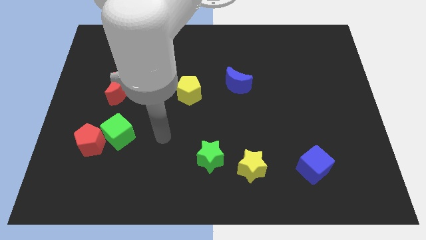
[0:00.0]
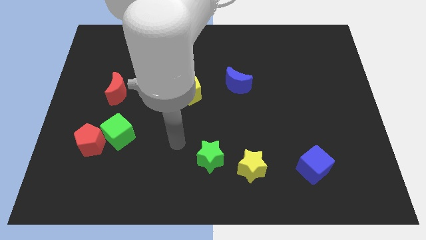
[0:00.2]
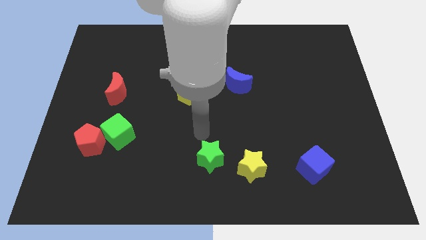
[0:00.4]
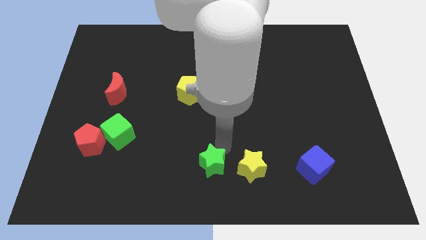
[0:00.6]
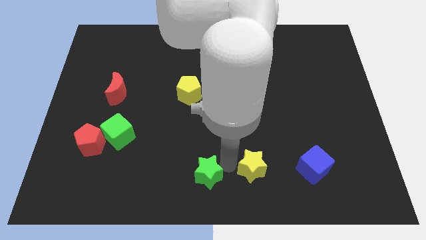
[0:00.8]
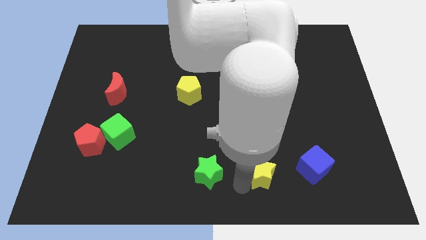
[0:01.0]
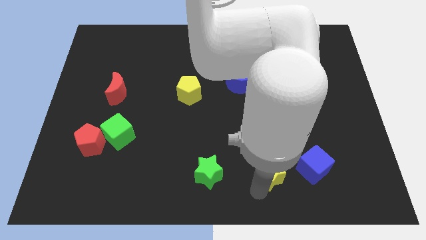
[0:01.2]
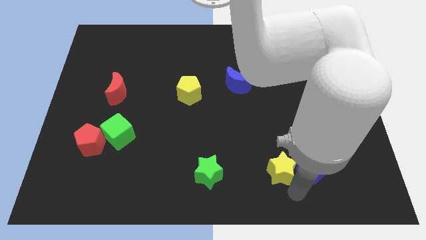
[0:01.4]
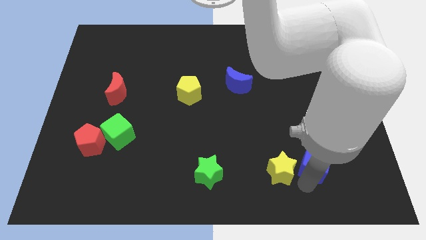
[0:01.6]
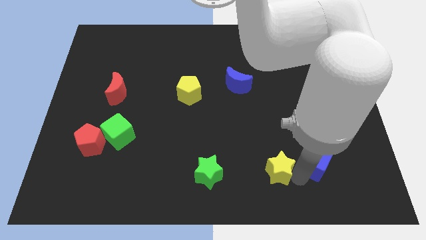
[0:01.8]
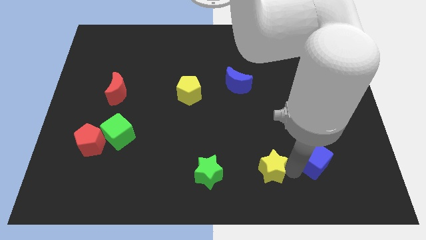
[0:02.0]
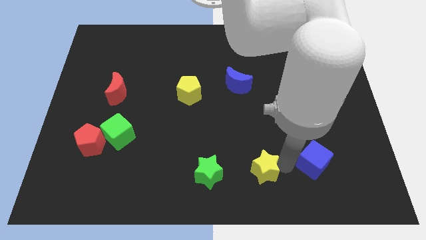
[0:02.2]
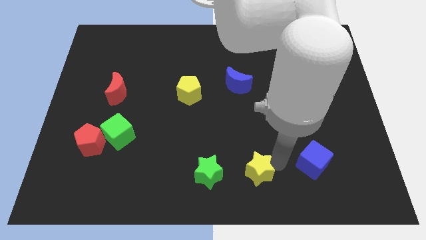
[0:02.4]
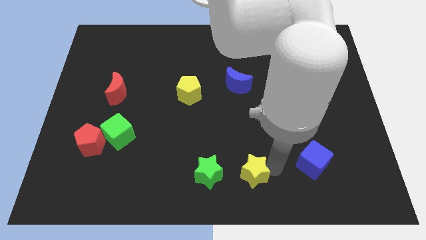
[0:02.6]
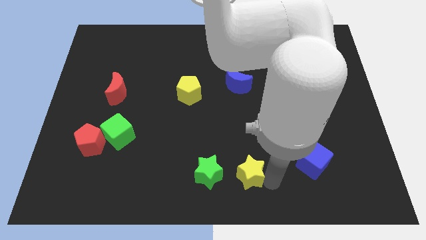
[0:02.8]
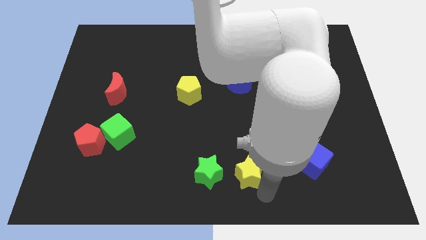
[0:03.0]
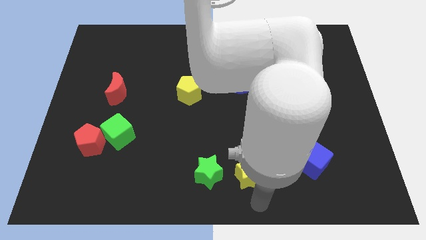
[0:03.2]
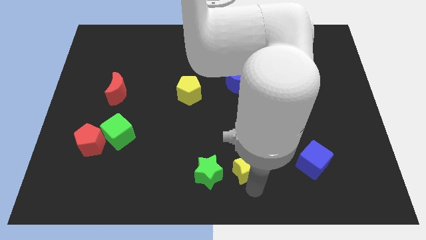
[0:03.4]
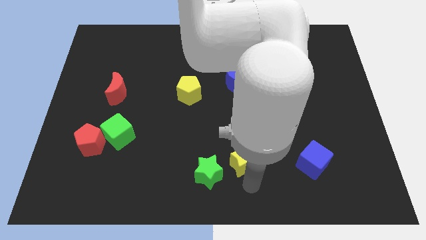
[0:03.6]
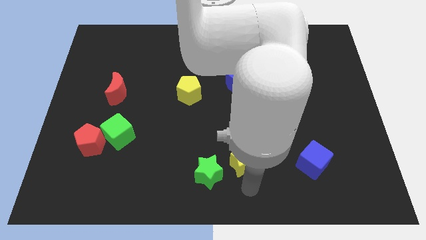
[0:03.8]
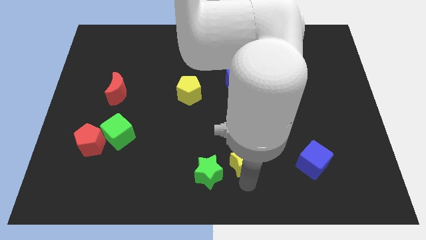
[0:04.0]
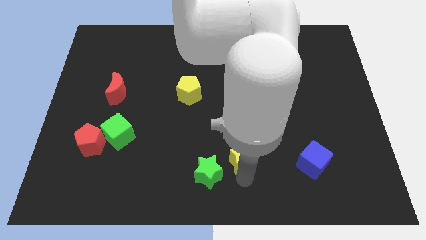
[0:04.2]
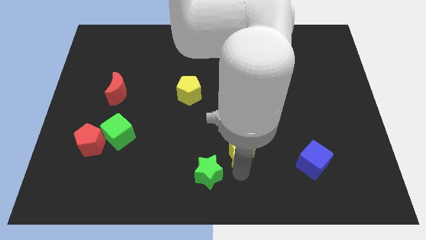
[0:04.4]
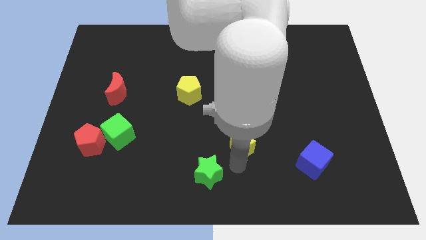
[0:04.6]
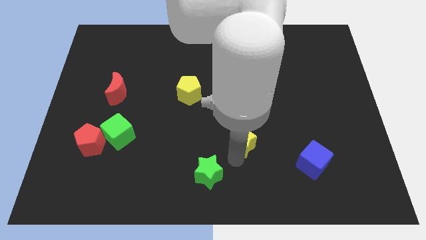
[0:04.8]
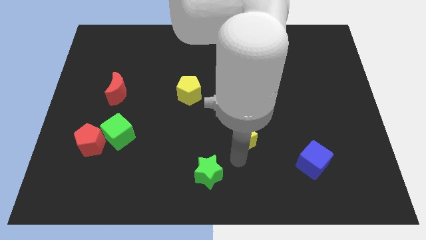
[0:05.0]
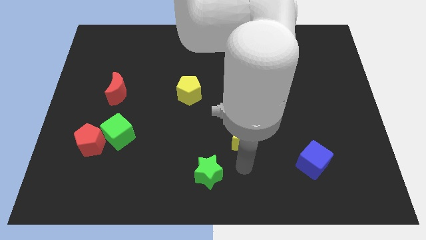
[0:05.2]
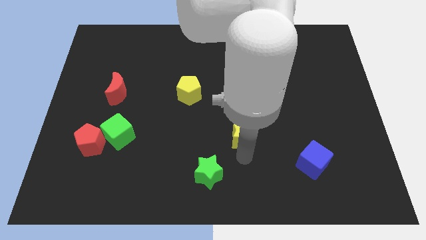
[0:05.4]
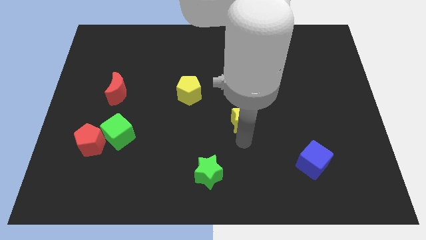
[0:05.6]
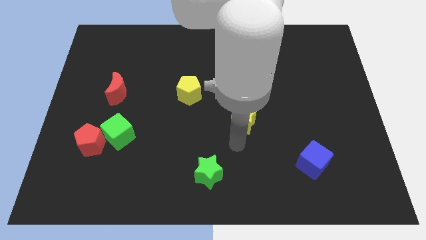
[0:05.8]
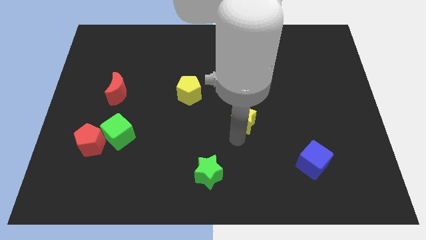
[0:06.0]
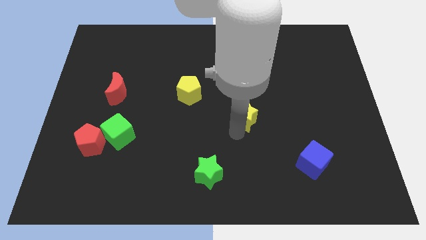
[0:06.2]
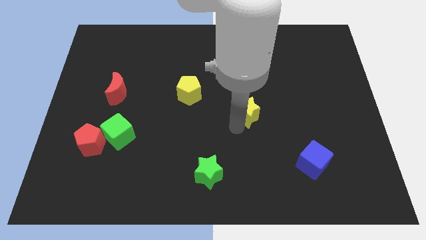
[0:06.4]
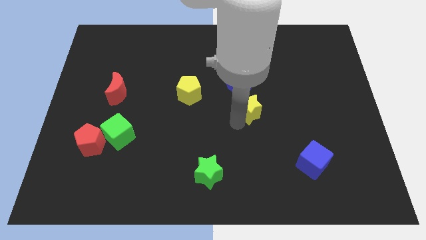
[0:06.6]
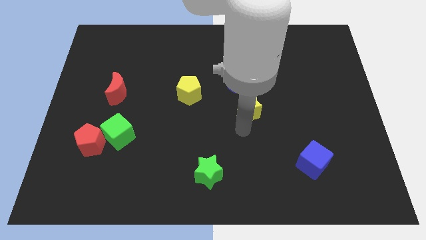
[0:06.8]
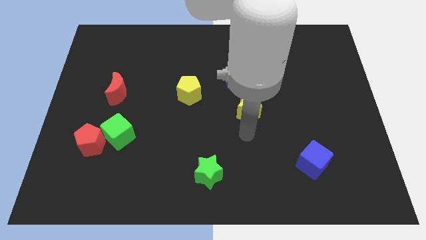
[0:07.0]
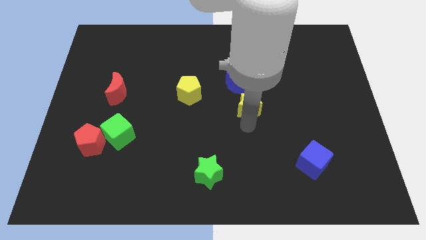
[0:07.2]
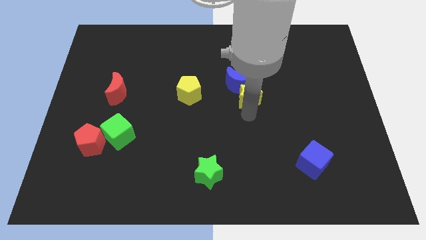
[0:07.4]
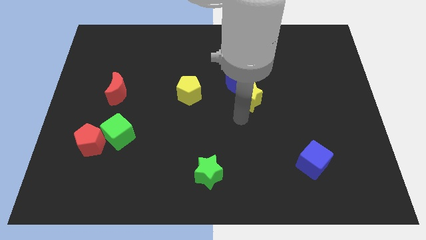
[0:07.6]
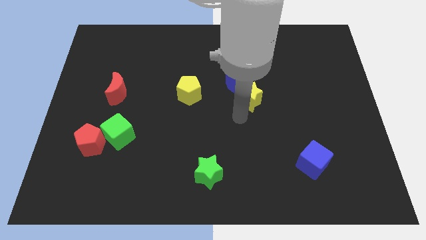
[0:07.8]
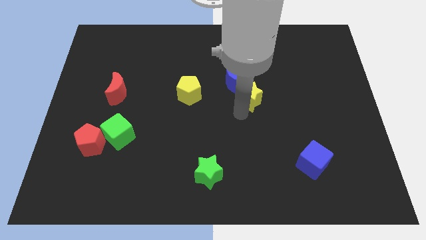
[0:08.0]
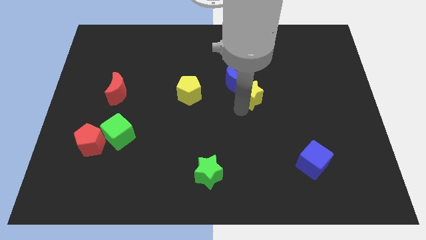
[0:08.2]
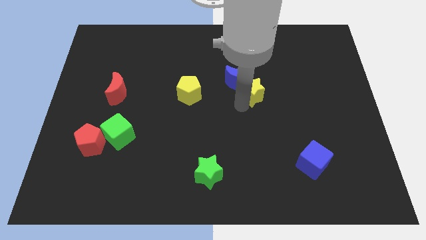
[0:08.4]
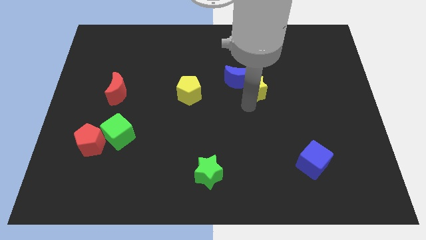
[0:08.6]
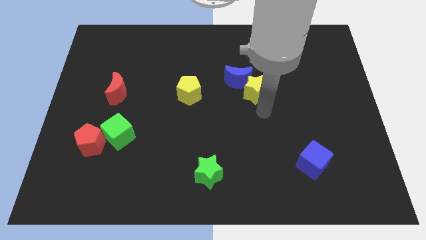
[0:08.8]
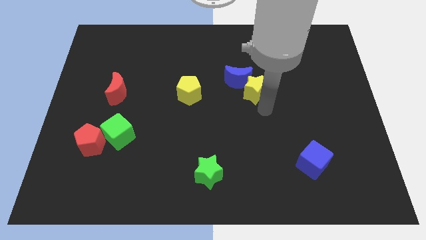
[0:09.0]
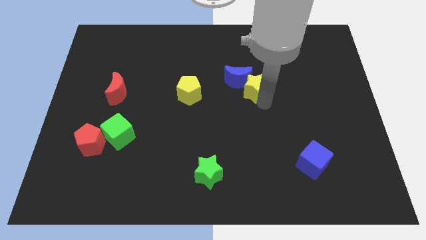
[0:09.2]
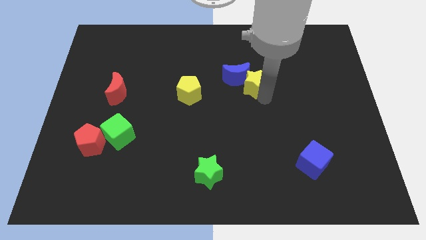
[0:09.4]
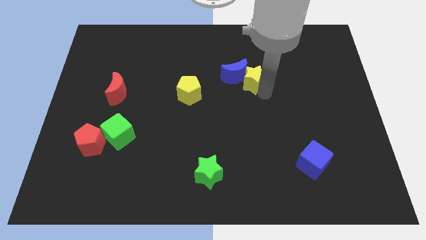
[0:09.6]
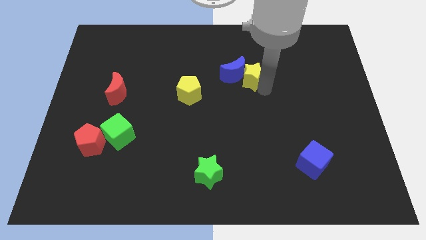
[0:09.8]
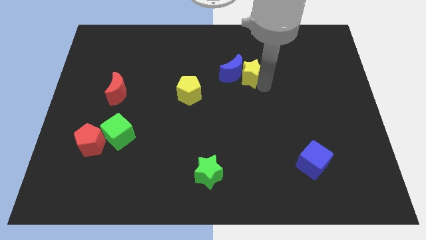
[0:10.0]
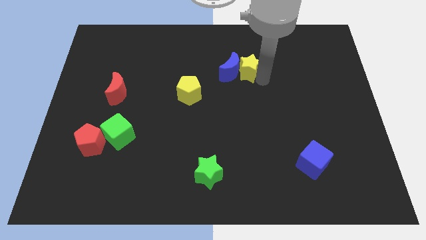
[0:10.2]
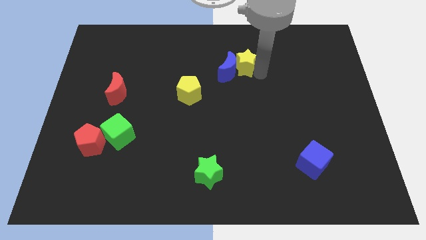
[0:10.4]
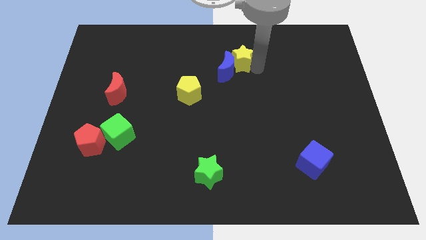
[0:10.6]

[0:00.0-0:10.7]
slide the yellow star above the blue moon

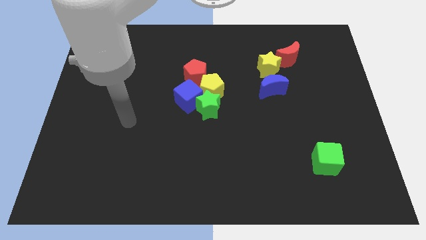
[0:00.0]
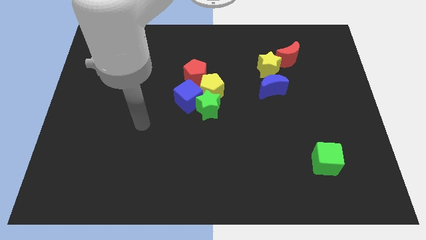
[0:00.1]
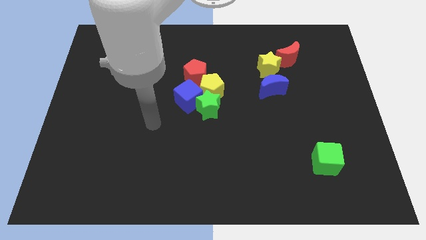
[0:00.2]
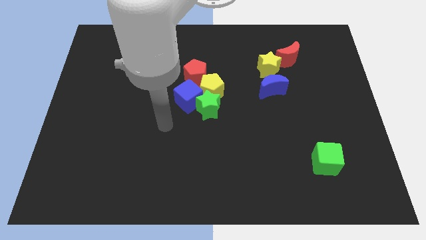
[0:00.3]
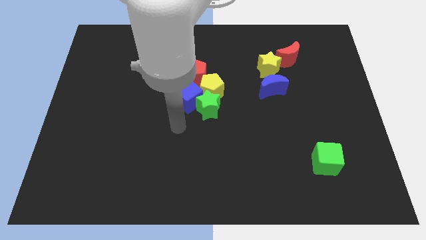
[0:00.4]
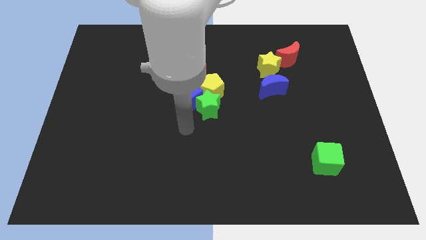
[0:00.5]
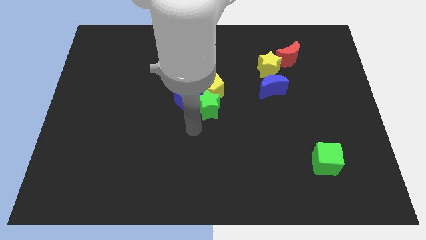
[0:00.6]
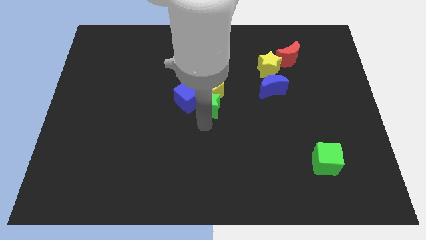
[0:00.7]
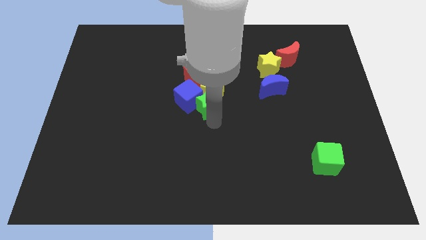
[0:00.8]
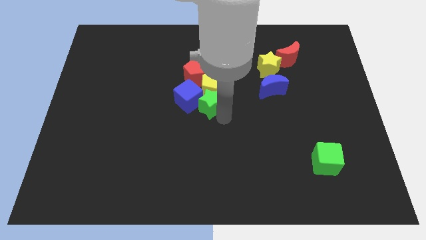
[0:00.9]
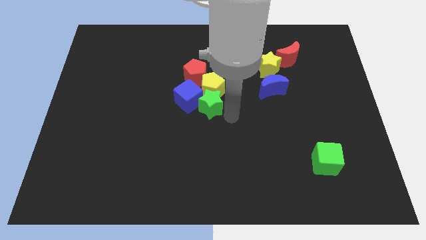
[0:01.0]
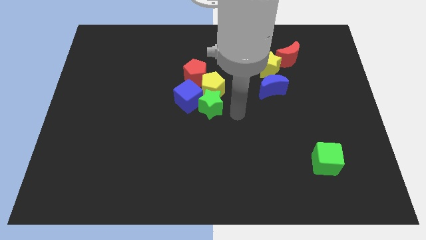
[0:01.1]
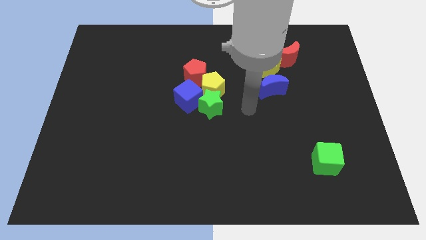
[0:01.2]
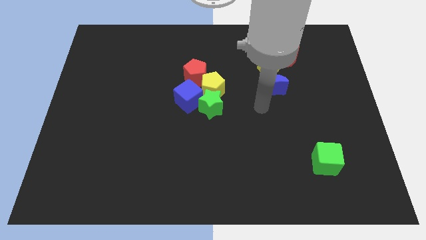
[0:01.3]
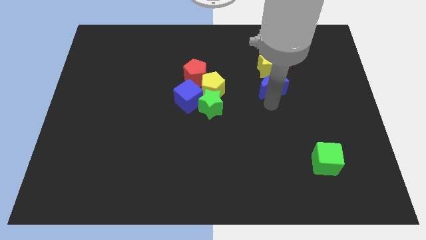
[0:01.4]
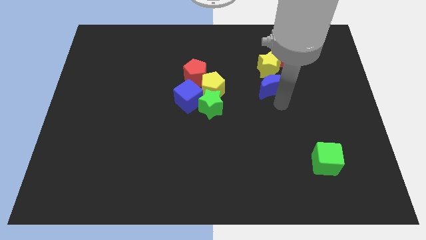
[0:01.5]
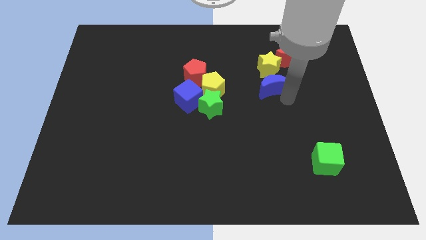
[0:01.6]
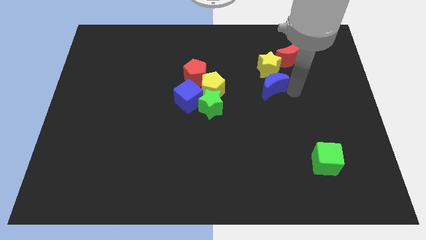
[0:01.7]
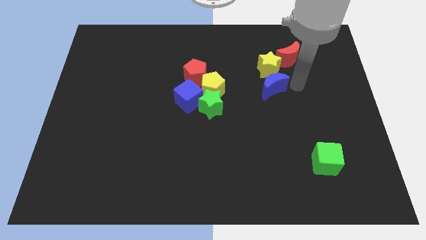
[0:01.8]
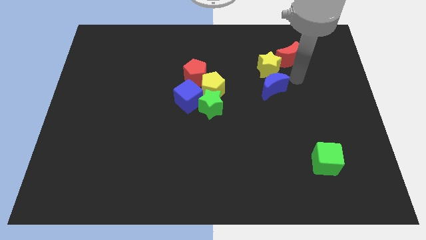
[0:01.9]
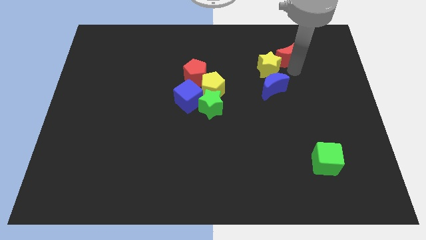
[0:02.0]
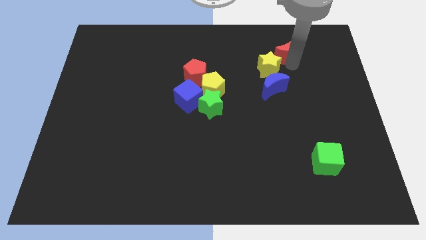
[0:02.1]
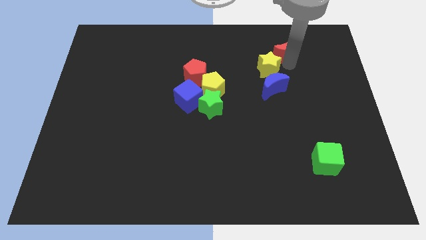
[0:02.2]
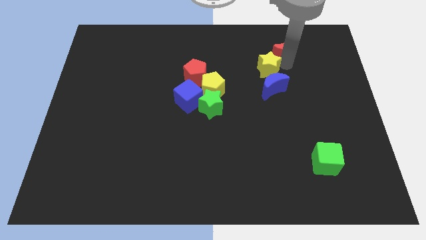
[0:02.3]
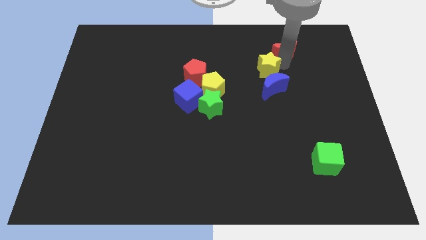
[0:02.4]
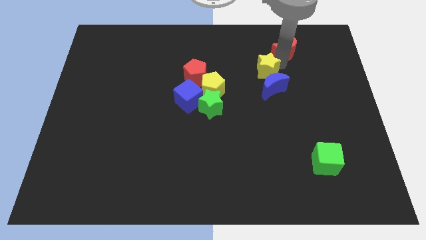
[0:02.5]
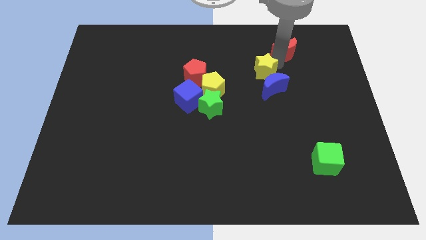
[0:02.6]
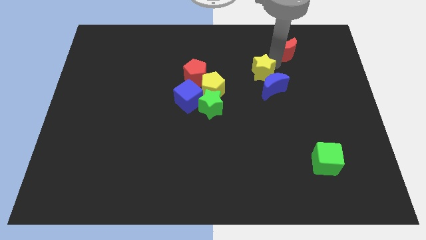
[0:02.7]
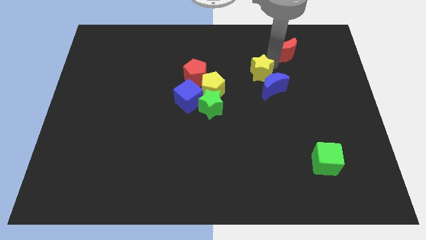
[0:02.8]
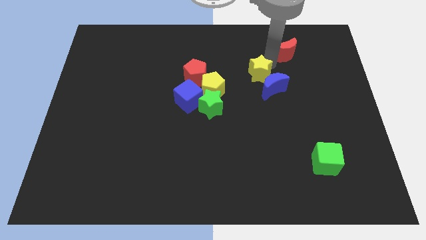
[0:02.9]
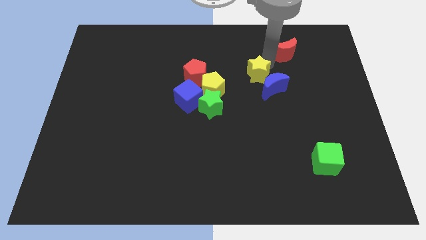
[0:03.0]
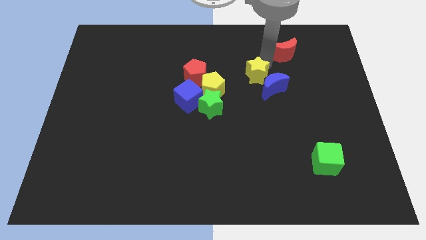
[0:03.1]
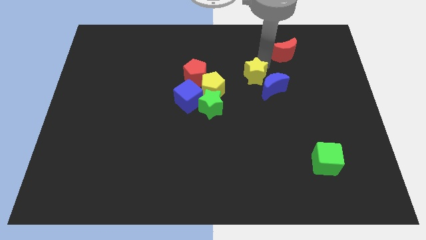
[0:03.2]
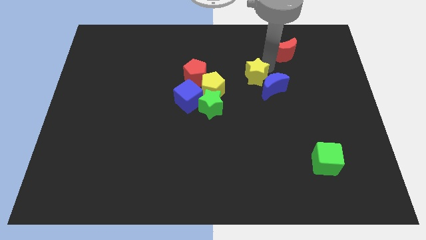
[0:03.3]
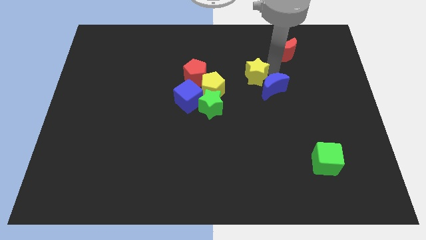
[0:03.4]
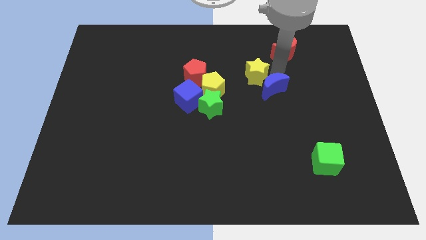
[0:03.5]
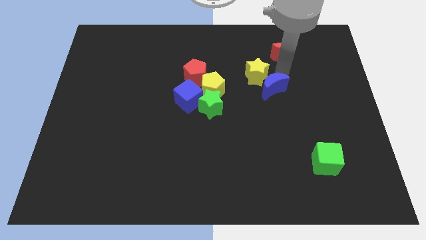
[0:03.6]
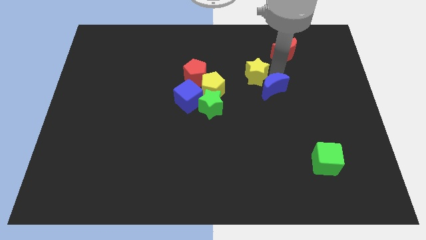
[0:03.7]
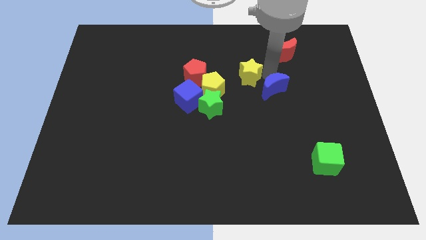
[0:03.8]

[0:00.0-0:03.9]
put the yellow star diagonally up and to the right of the yellow pentagon
